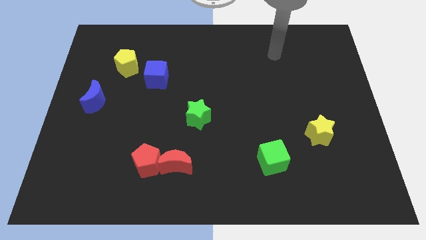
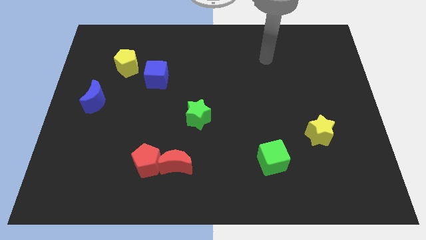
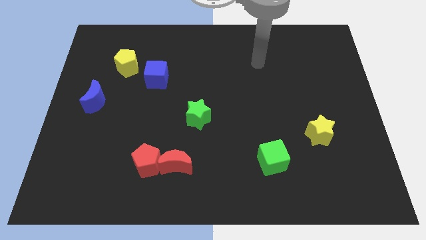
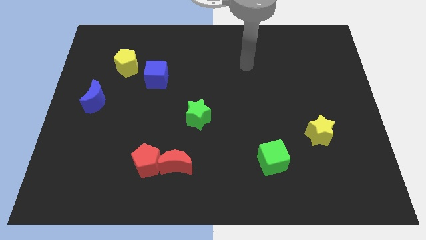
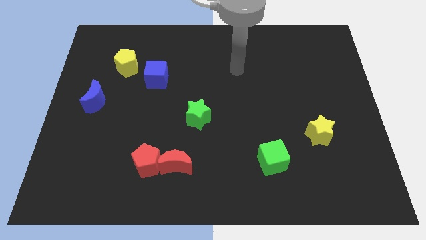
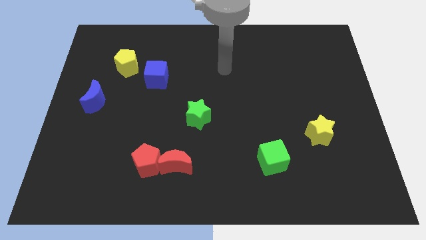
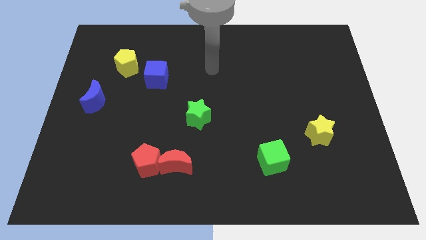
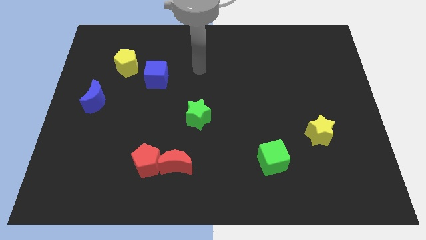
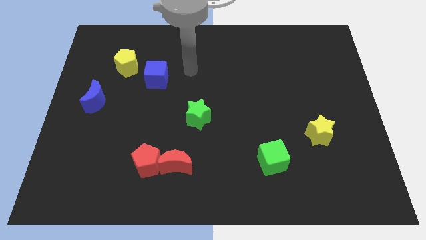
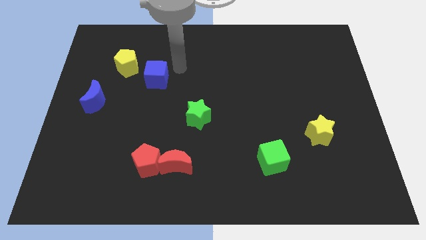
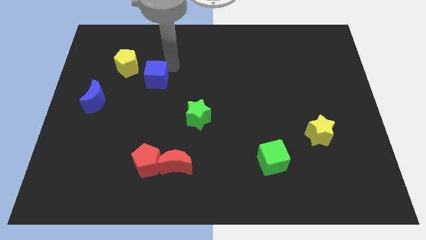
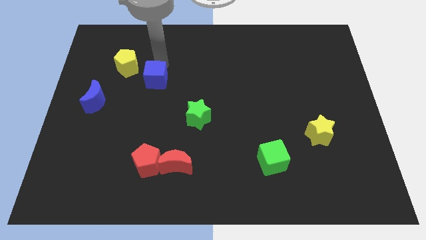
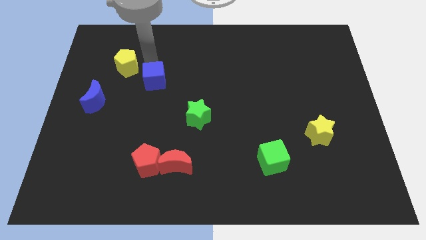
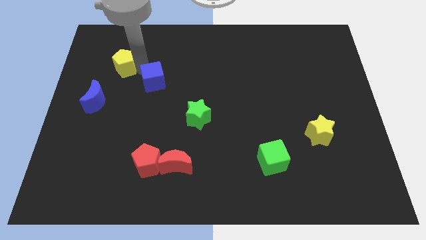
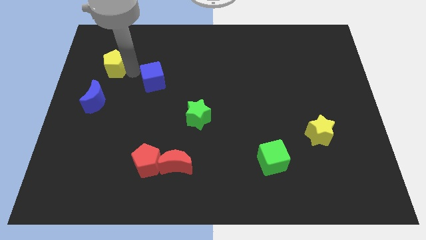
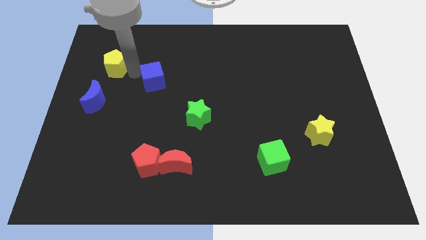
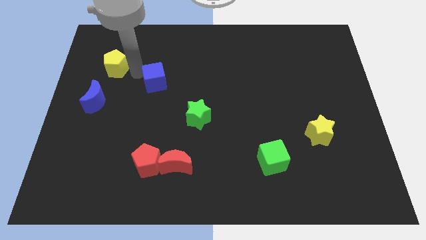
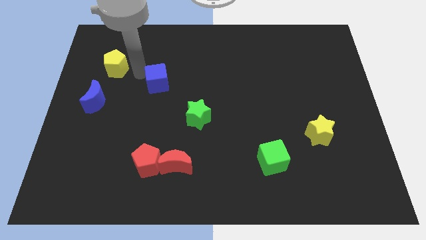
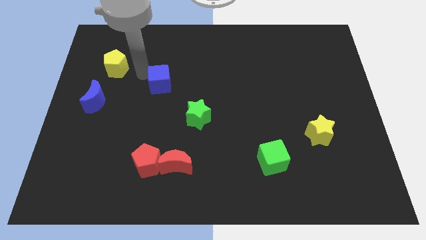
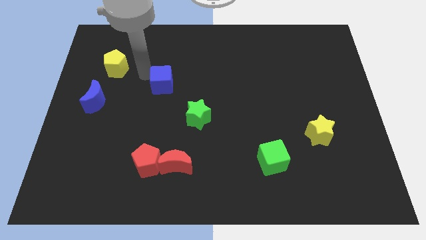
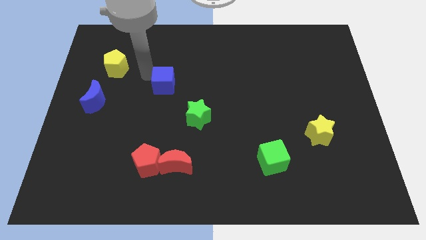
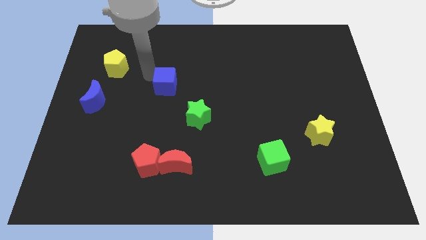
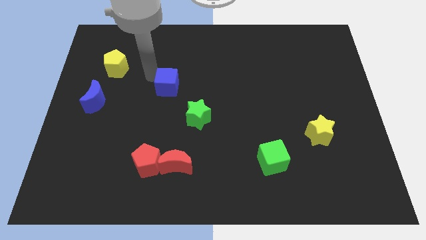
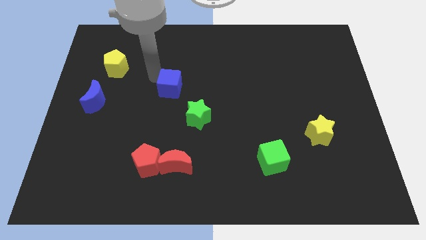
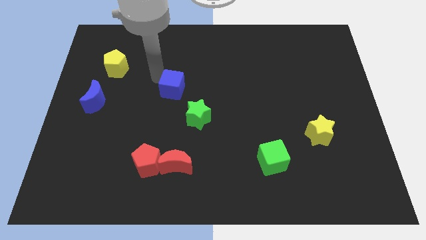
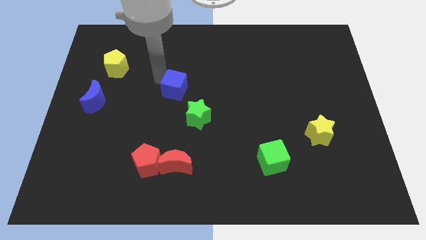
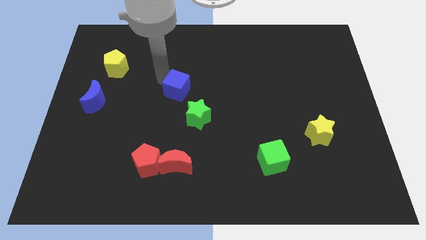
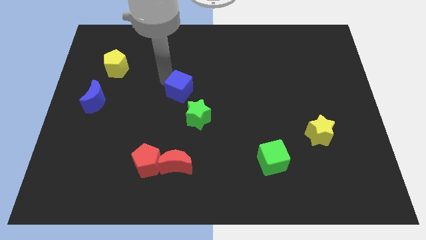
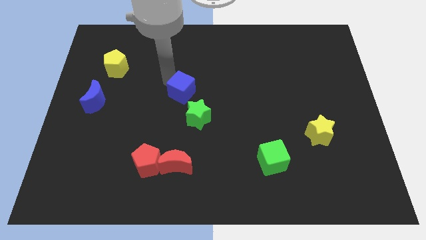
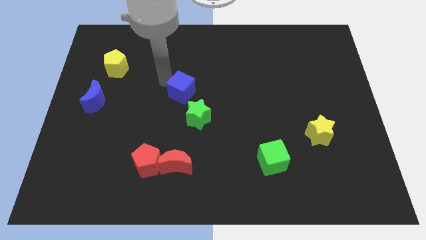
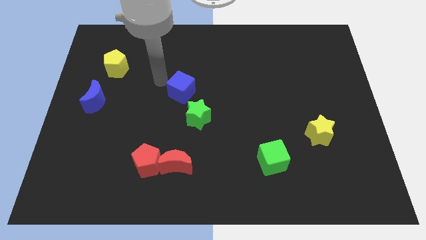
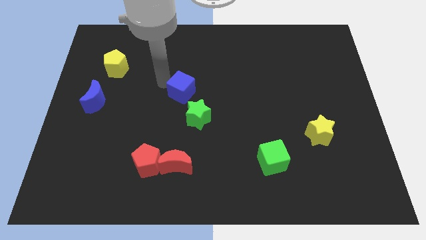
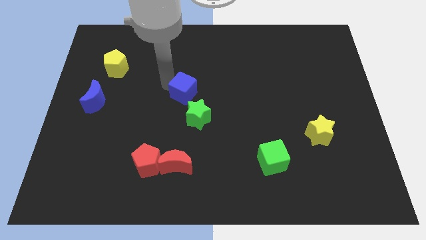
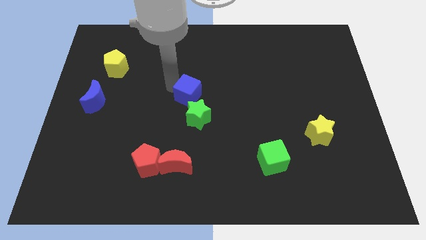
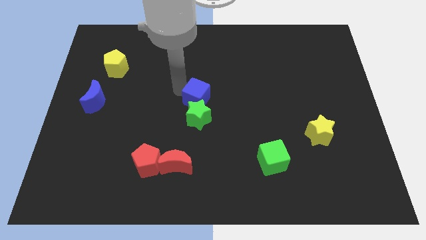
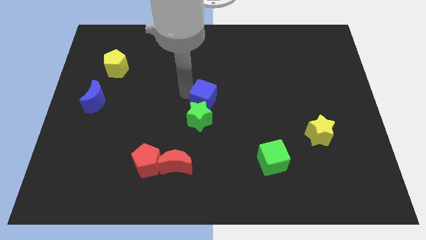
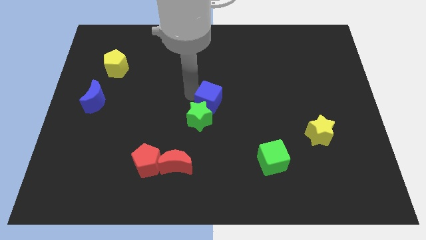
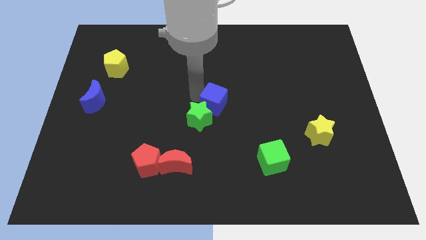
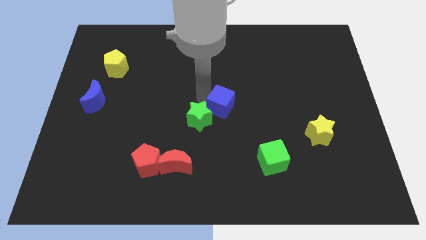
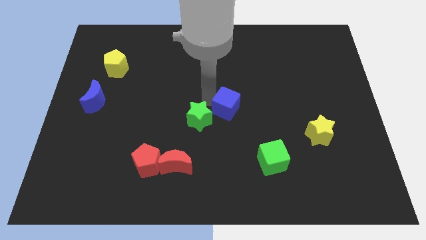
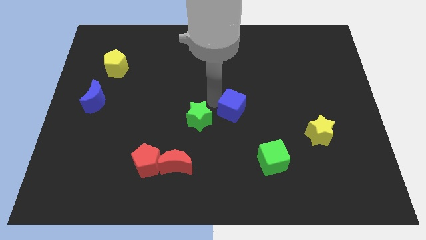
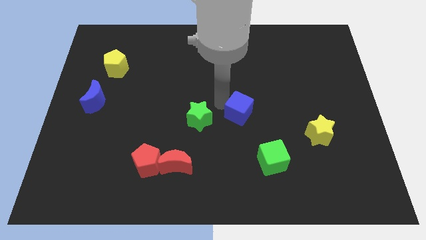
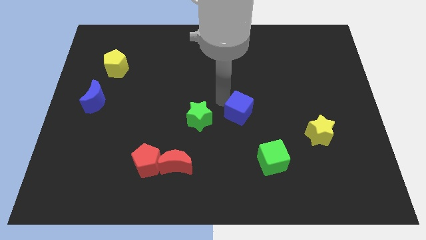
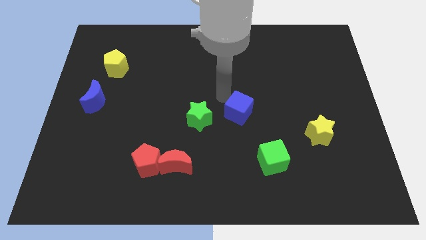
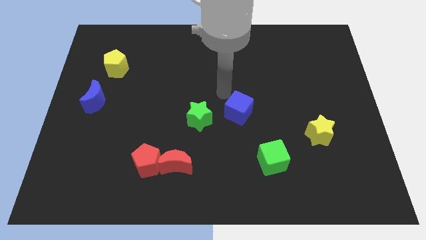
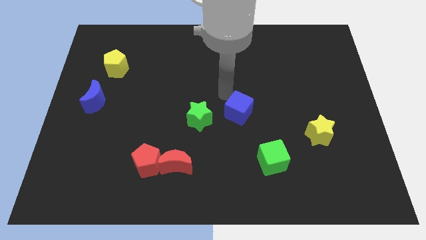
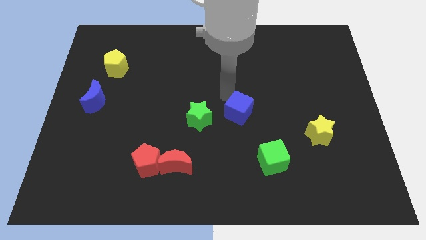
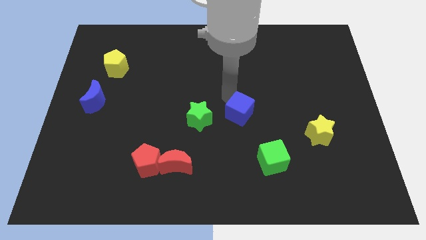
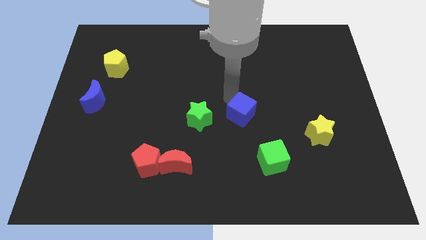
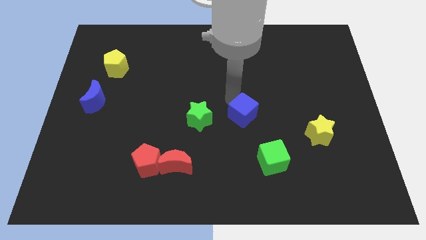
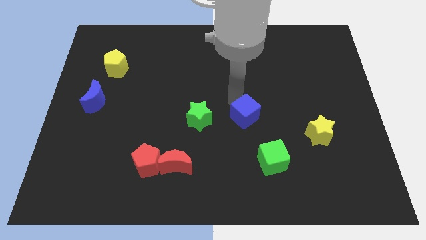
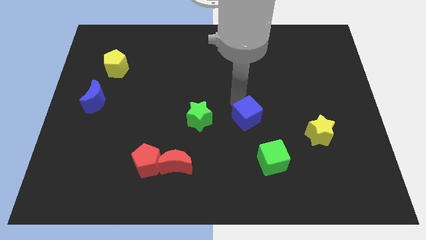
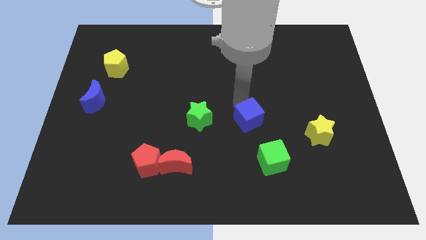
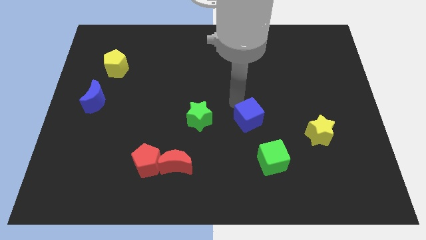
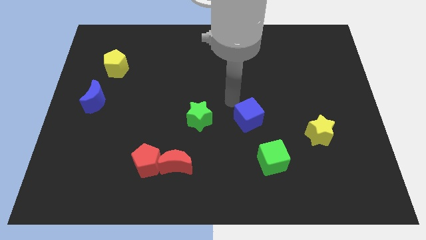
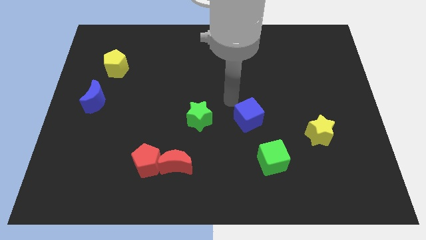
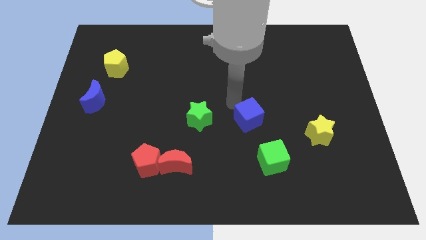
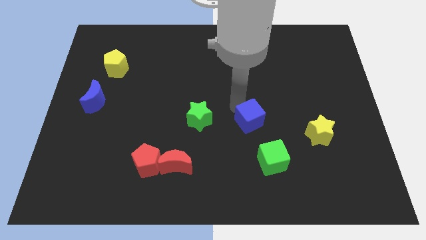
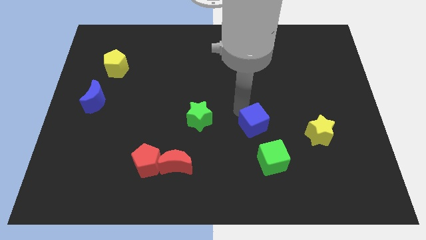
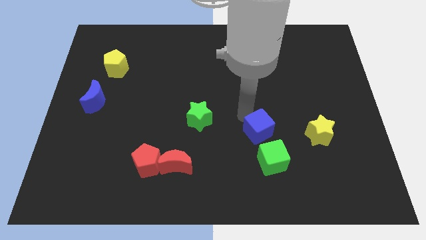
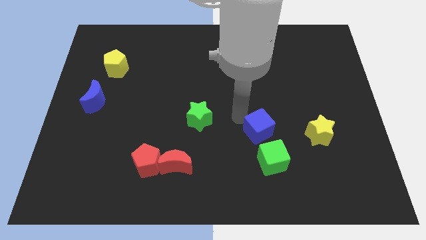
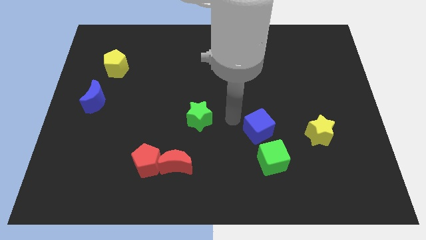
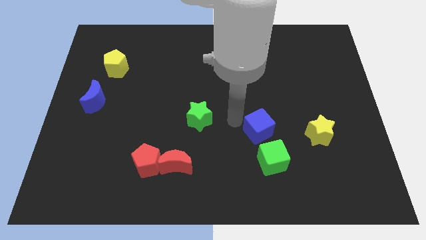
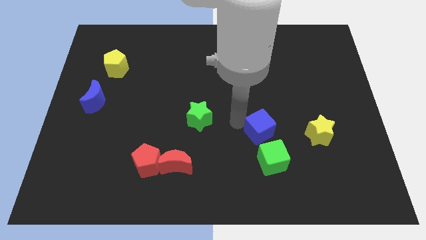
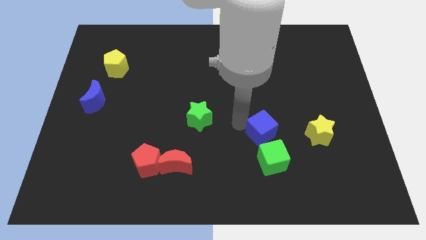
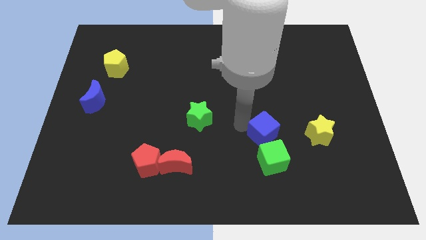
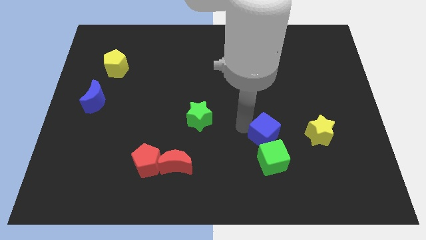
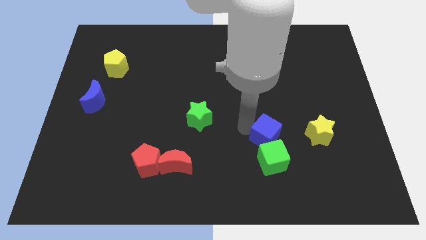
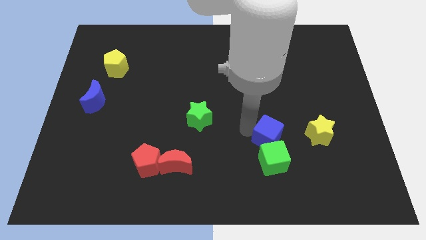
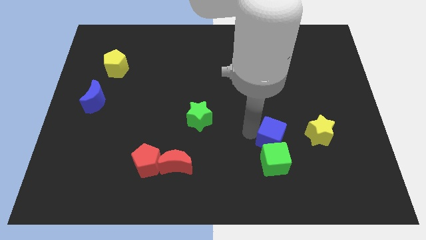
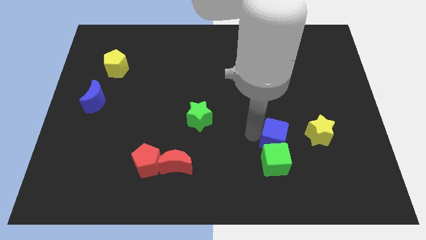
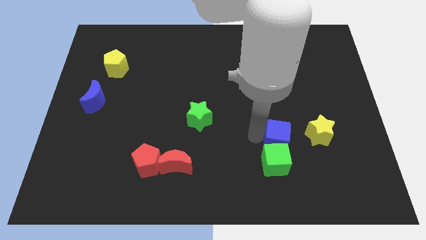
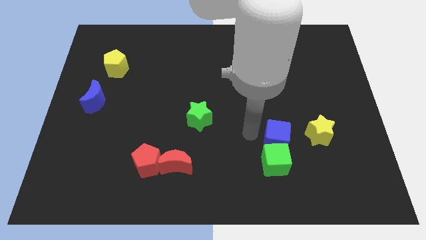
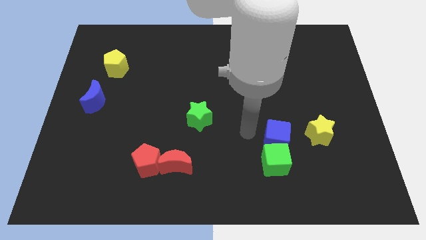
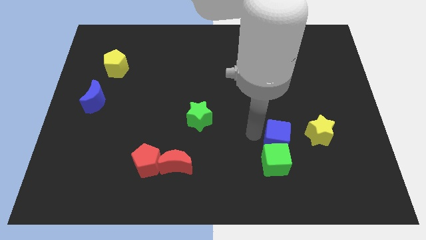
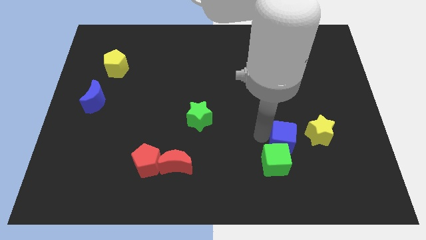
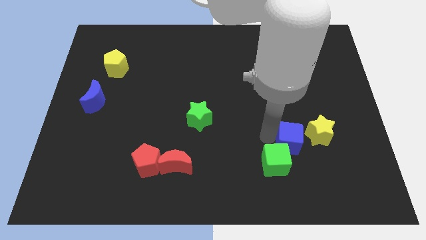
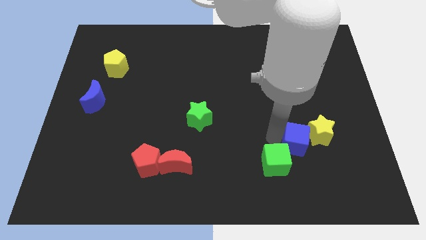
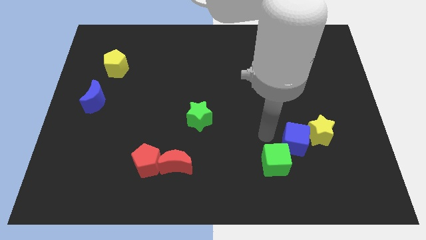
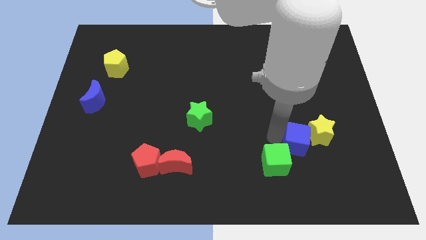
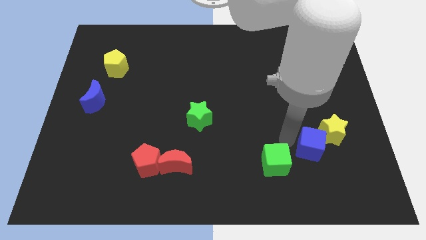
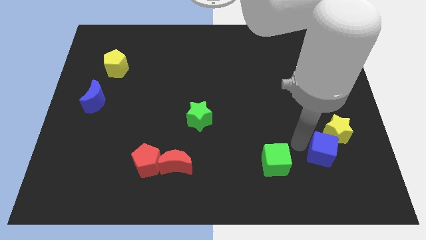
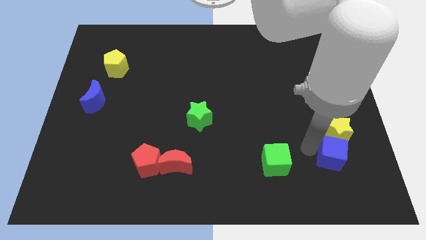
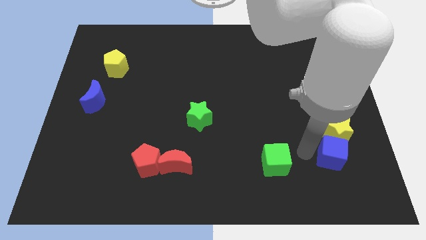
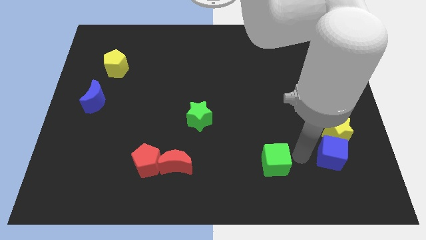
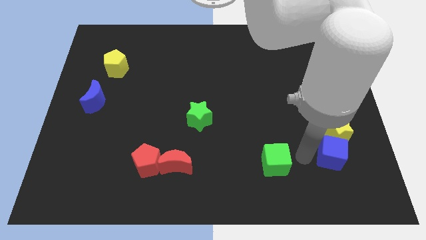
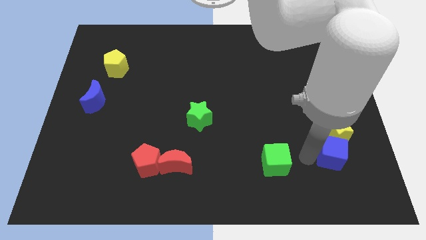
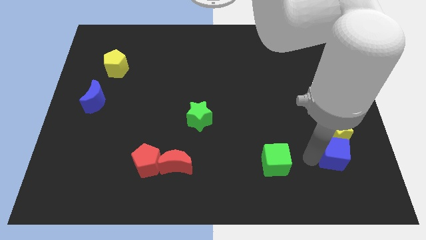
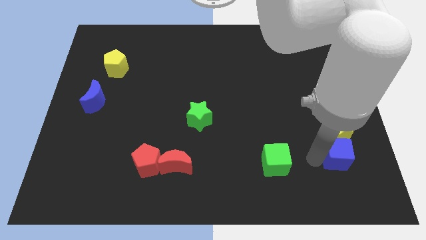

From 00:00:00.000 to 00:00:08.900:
put the blue cube diagonally down and to the right of the yellow star

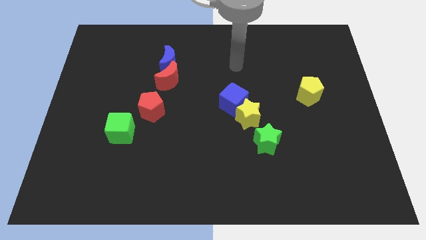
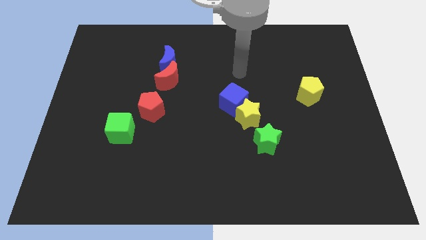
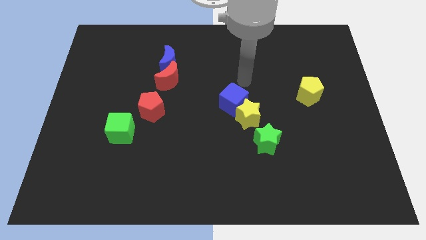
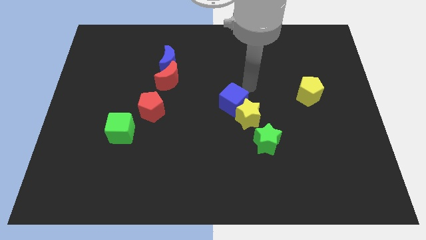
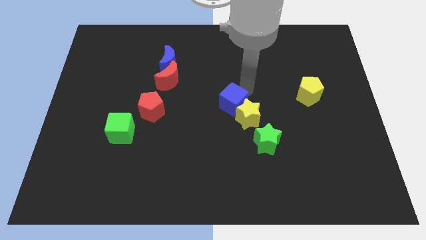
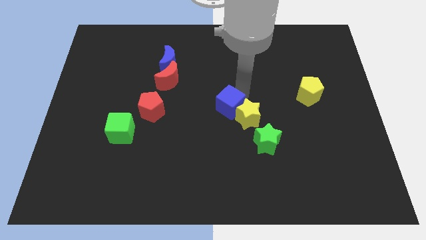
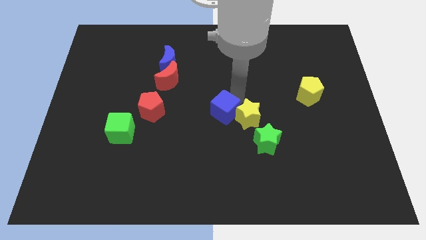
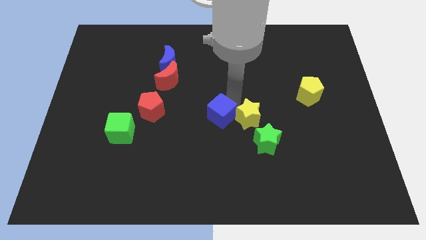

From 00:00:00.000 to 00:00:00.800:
slide the blue cube to the bottom left side of the yellow star
